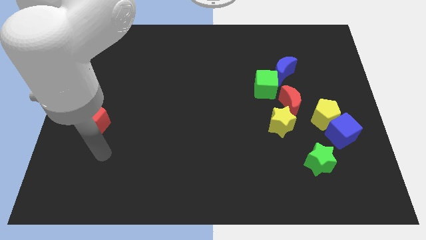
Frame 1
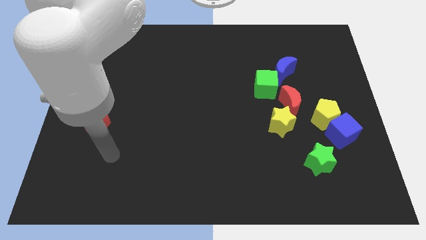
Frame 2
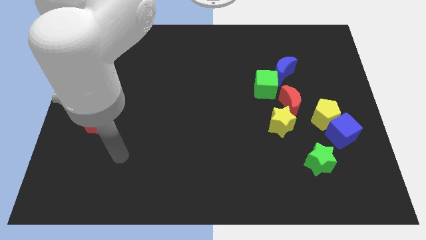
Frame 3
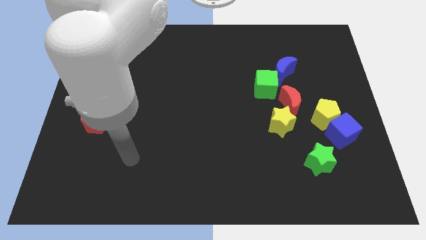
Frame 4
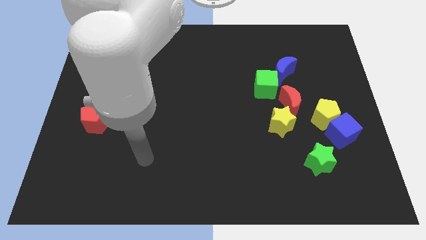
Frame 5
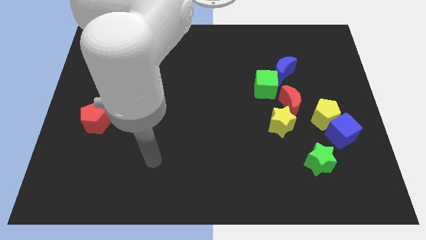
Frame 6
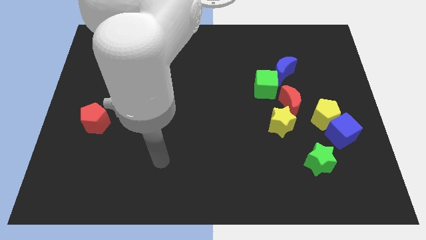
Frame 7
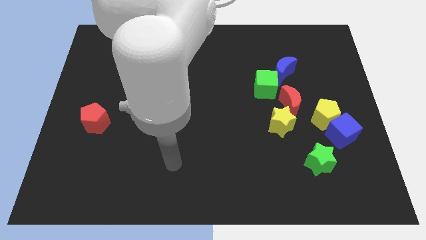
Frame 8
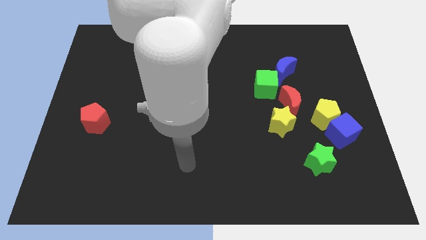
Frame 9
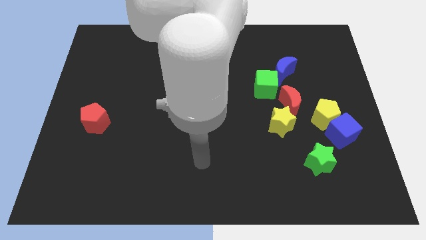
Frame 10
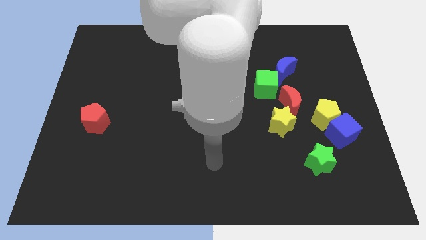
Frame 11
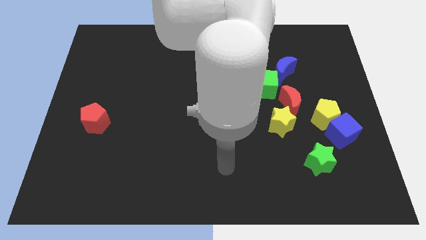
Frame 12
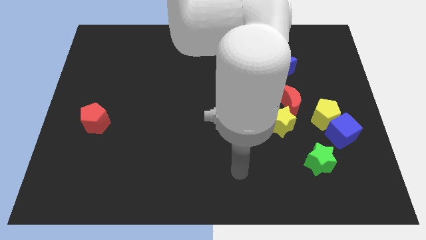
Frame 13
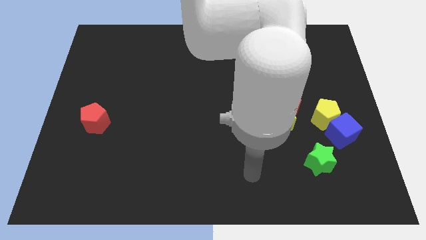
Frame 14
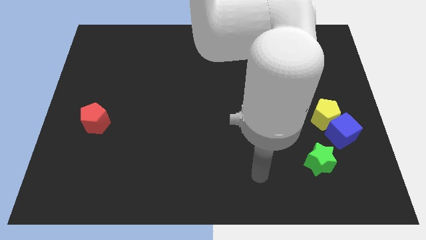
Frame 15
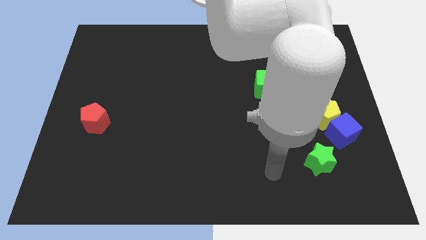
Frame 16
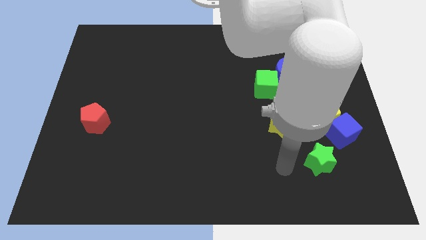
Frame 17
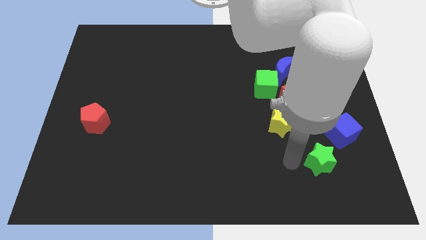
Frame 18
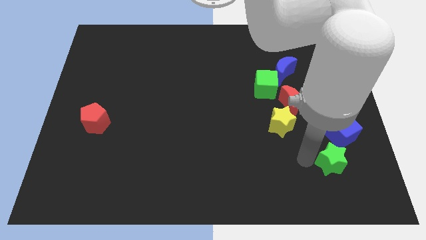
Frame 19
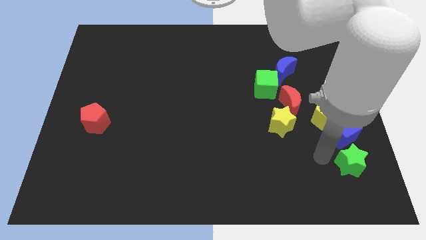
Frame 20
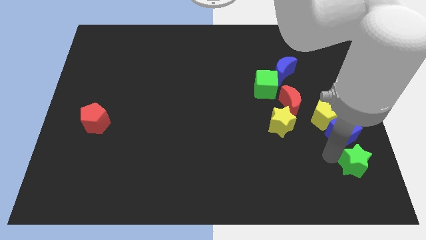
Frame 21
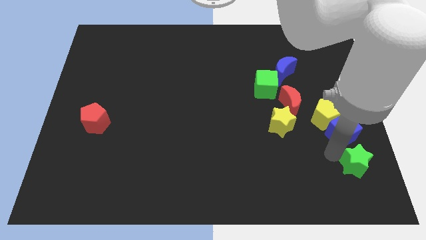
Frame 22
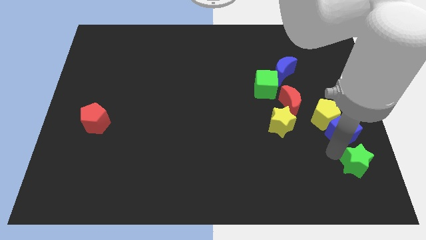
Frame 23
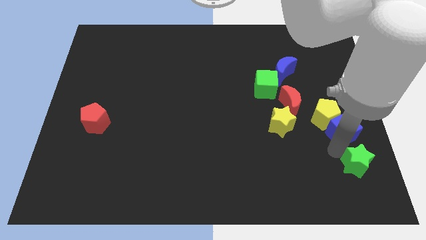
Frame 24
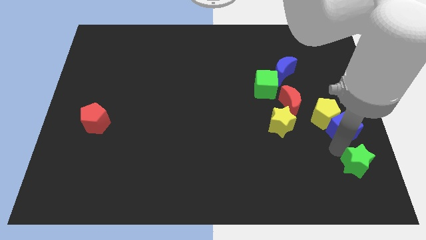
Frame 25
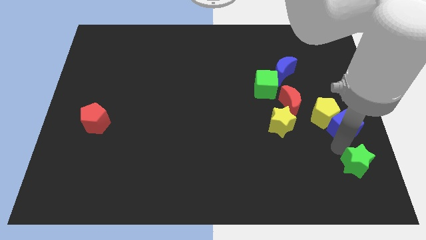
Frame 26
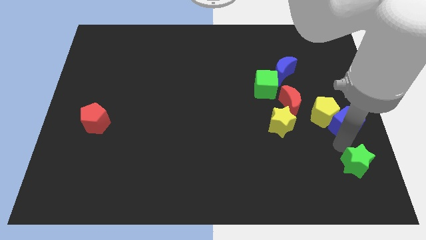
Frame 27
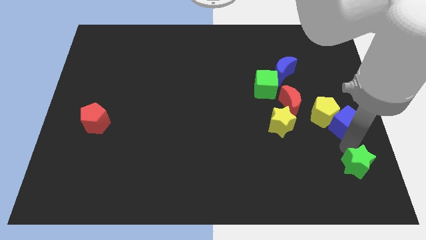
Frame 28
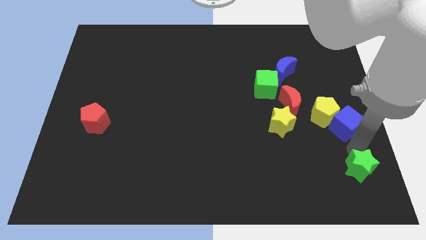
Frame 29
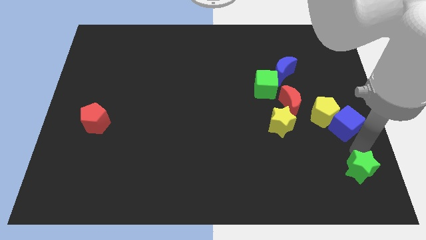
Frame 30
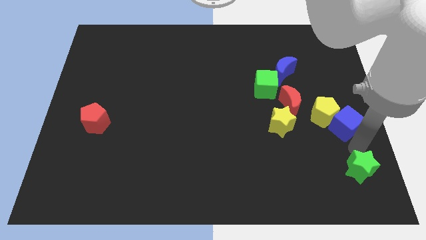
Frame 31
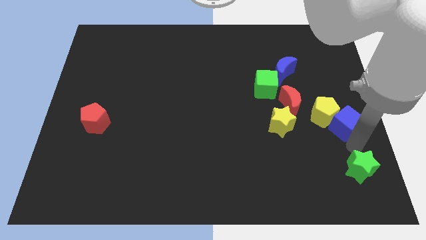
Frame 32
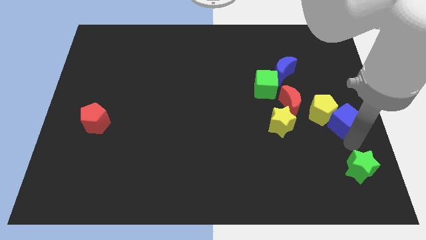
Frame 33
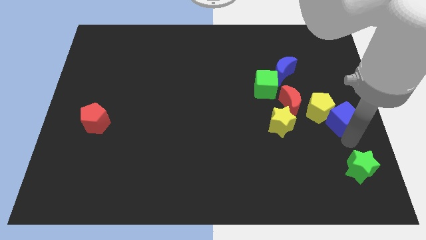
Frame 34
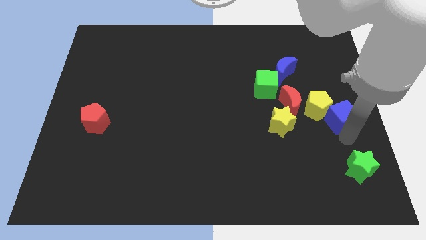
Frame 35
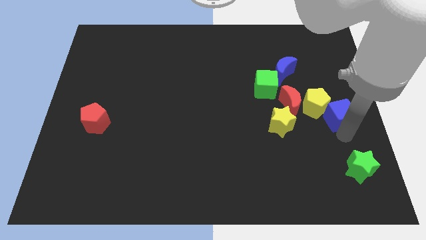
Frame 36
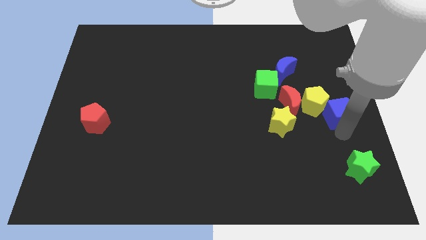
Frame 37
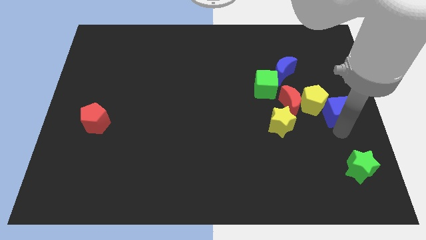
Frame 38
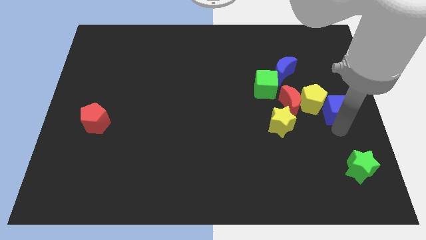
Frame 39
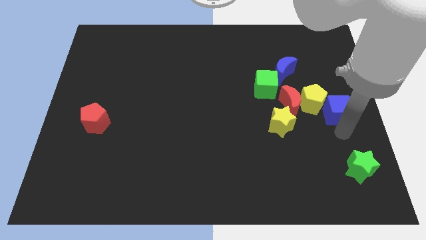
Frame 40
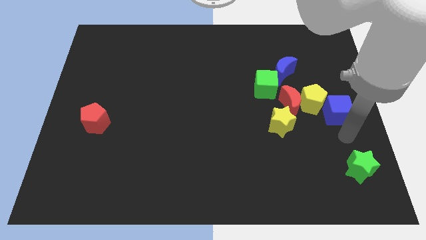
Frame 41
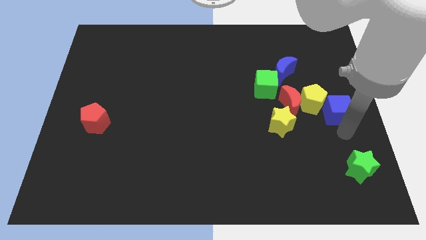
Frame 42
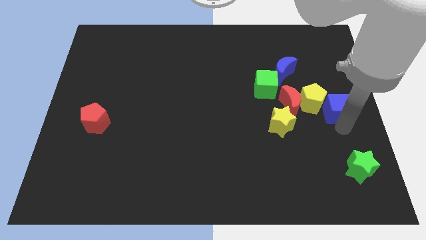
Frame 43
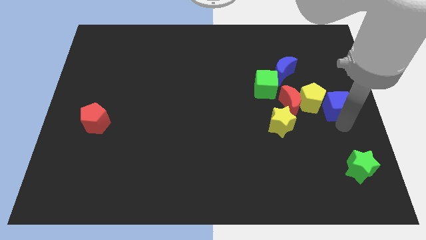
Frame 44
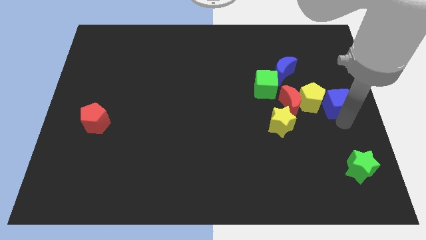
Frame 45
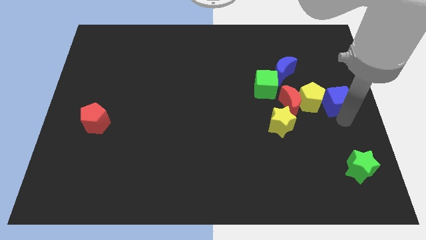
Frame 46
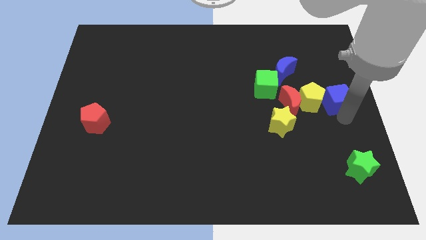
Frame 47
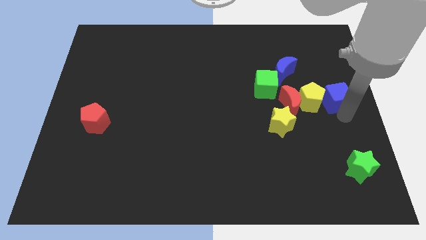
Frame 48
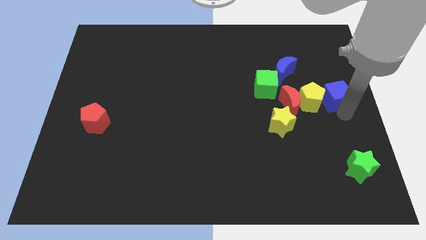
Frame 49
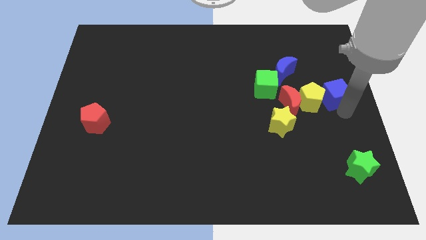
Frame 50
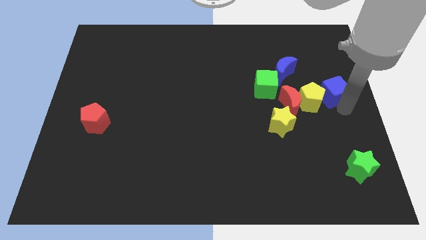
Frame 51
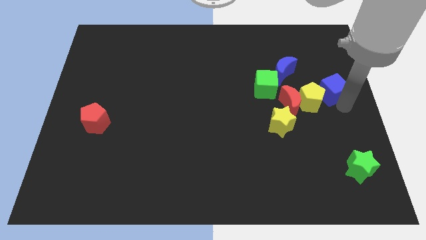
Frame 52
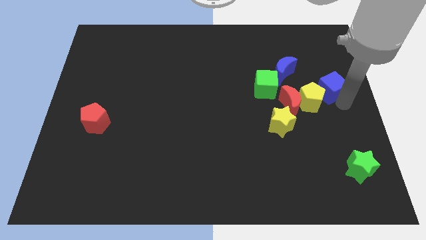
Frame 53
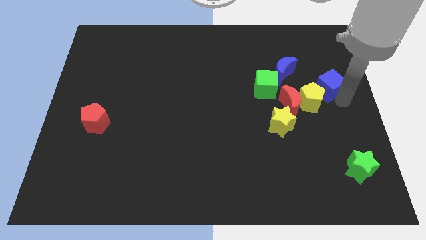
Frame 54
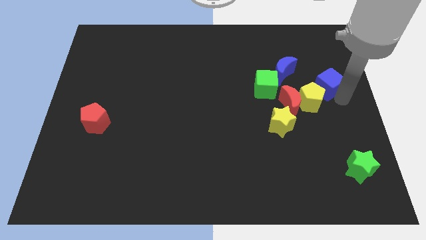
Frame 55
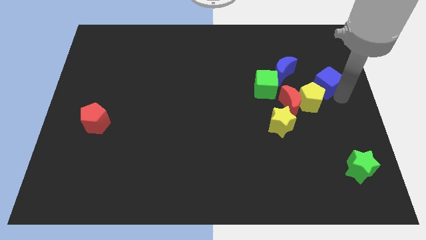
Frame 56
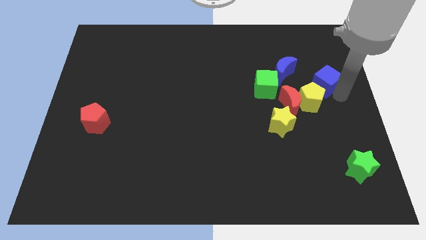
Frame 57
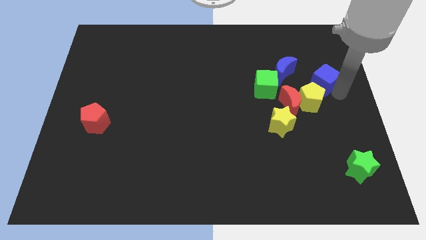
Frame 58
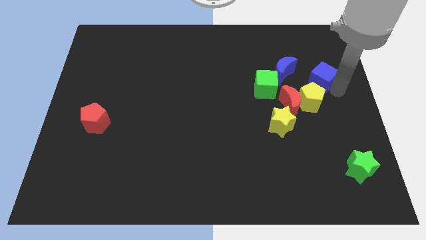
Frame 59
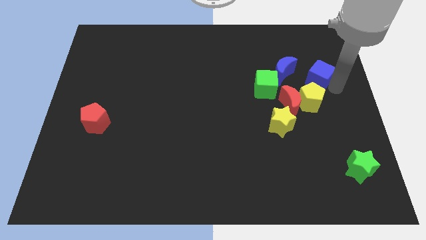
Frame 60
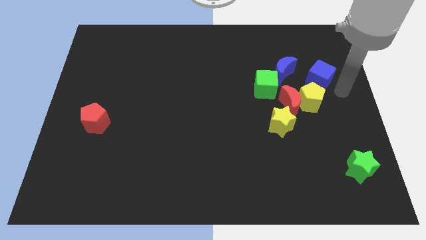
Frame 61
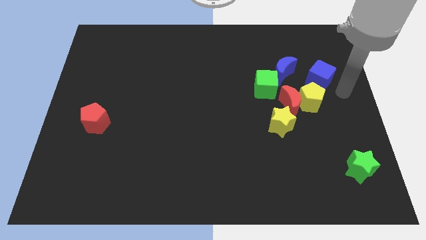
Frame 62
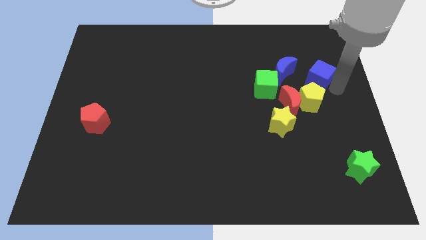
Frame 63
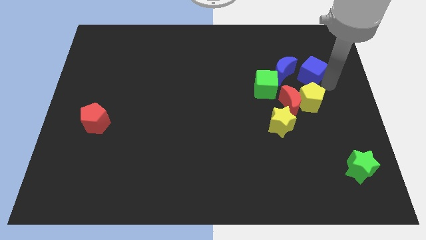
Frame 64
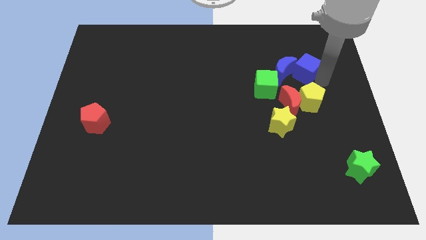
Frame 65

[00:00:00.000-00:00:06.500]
push the blue cube diagonally up and to the right of the green cube

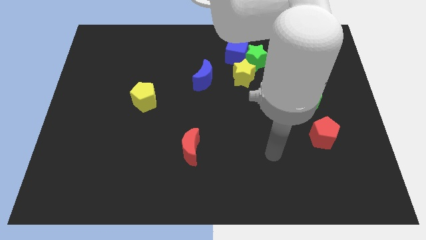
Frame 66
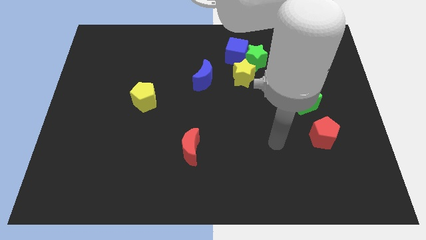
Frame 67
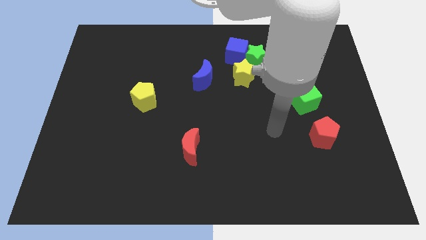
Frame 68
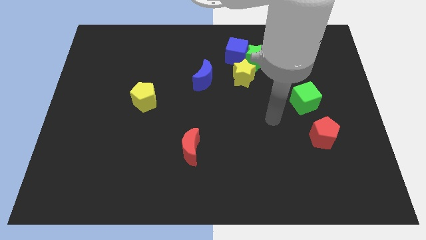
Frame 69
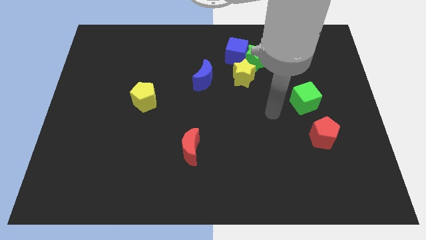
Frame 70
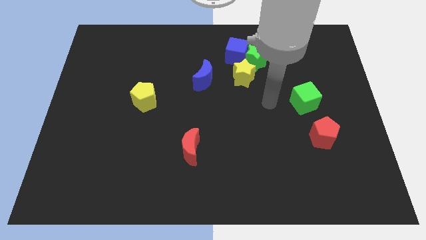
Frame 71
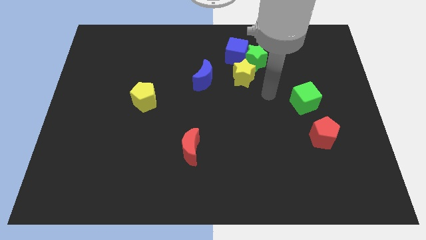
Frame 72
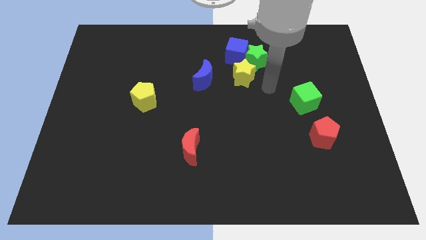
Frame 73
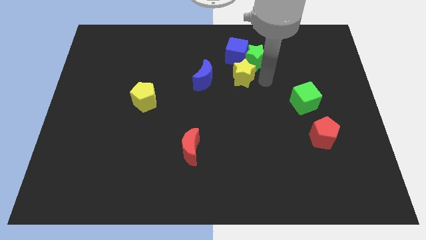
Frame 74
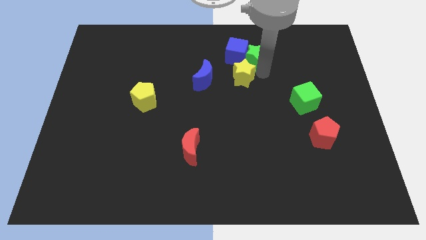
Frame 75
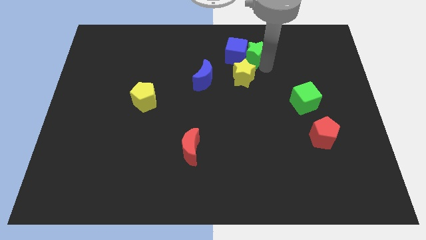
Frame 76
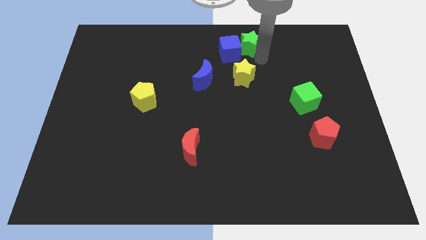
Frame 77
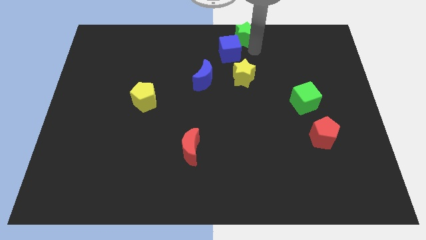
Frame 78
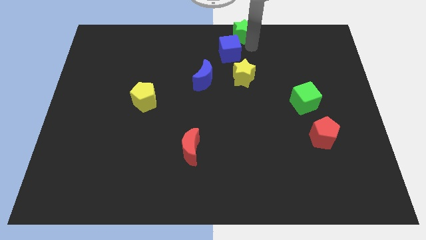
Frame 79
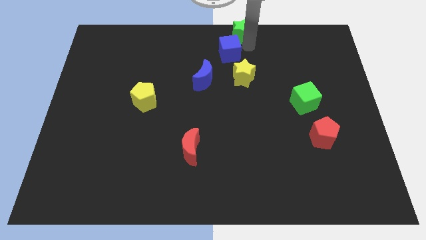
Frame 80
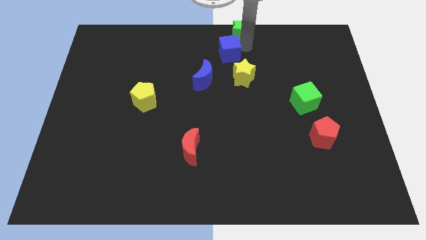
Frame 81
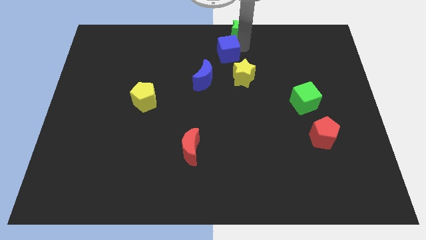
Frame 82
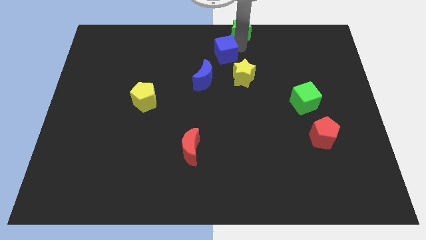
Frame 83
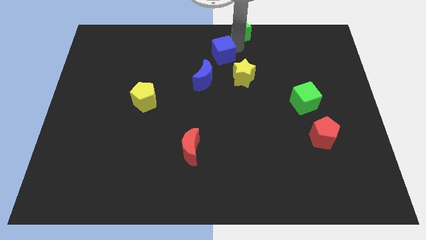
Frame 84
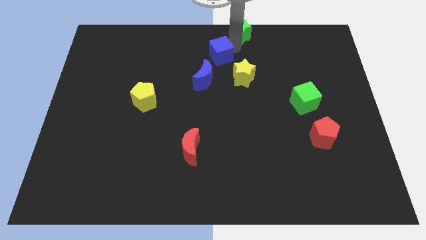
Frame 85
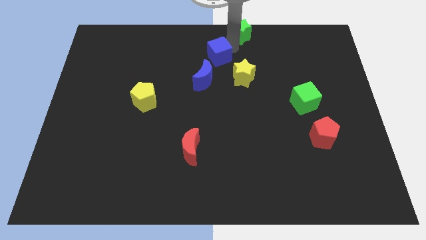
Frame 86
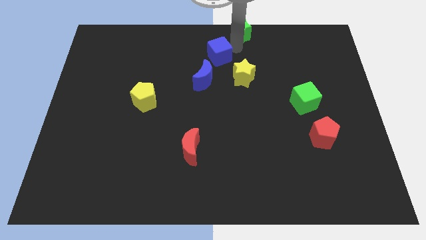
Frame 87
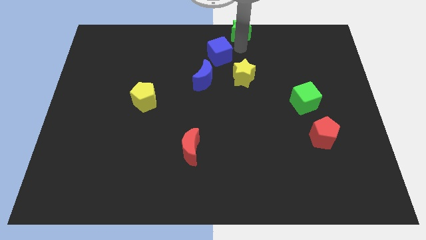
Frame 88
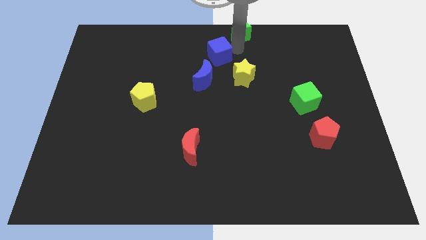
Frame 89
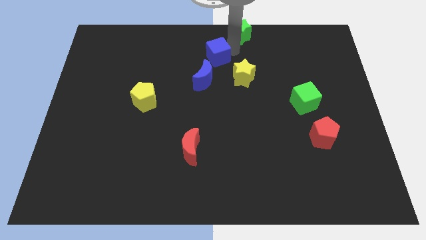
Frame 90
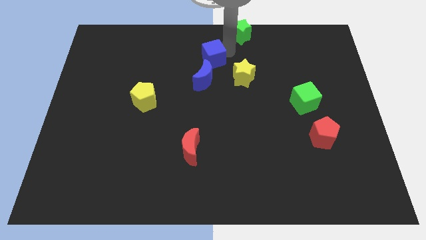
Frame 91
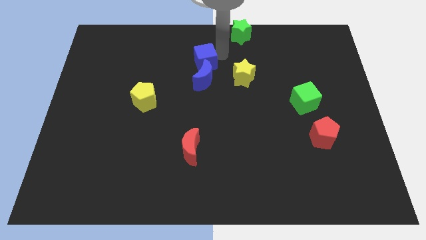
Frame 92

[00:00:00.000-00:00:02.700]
move the blue cube diagonally up and to the left of the blue moon
